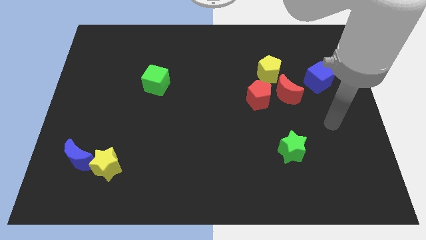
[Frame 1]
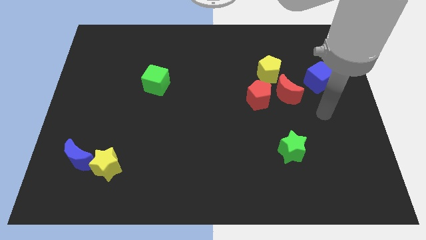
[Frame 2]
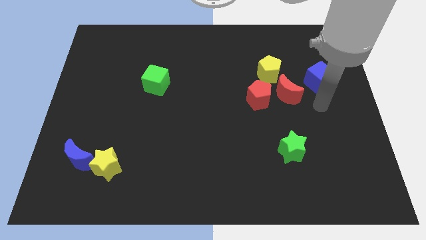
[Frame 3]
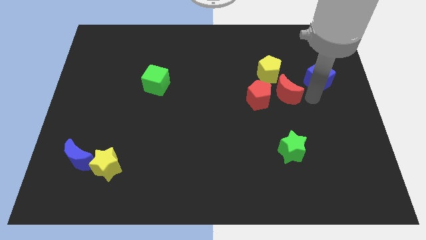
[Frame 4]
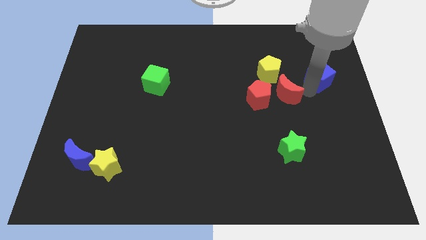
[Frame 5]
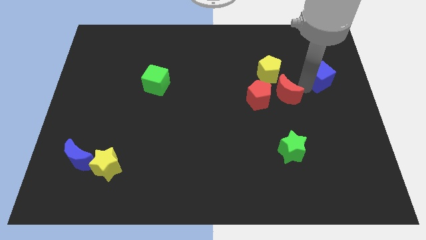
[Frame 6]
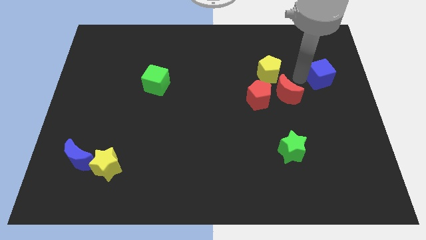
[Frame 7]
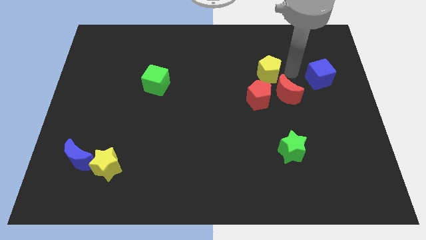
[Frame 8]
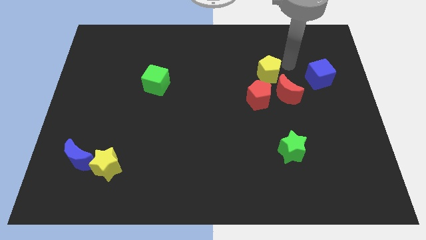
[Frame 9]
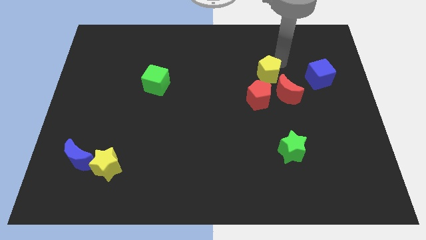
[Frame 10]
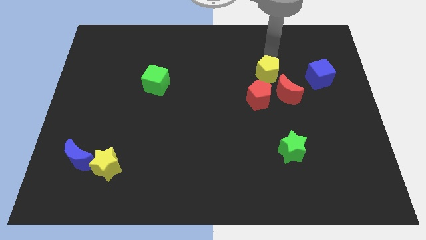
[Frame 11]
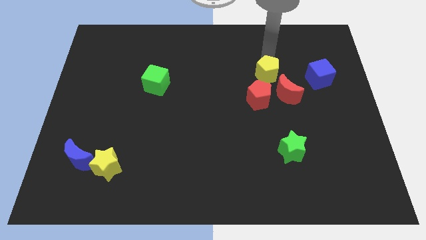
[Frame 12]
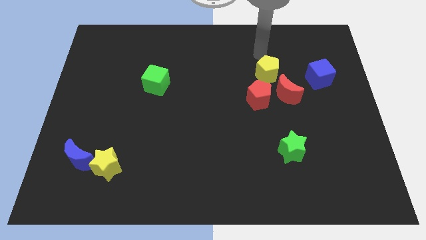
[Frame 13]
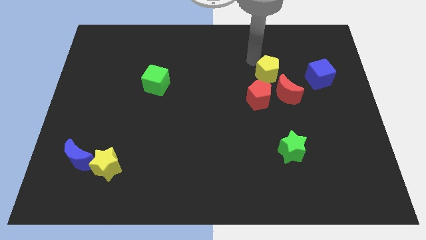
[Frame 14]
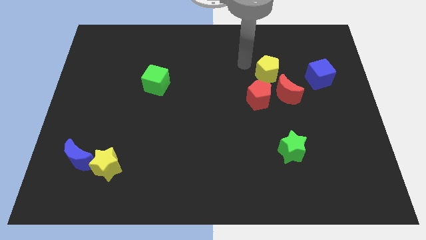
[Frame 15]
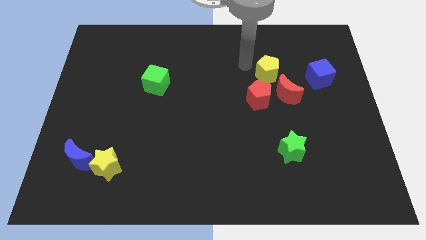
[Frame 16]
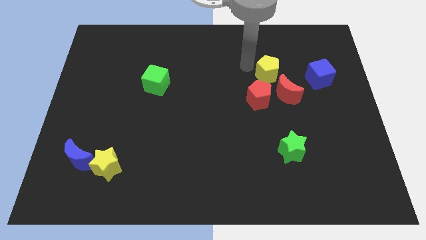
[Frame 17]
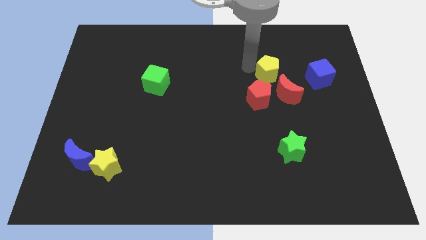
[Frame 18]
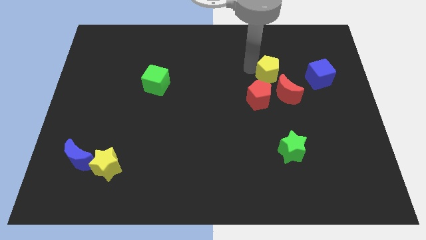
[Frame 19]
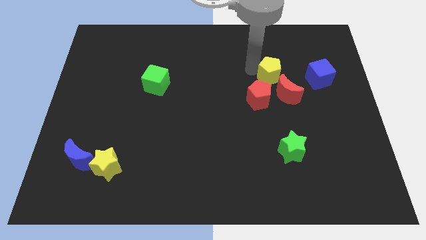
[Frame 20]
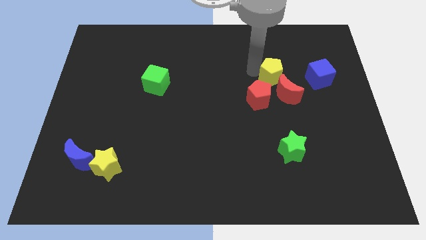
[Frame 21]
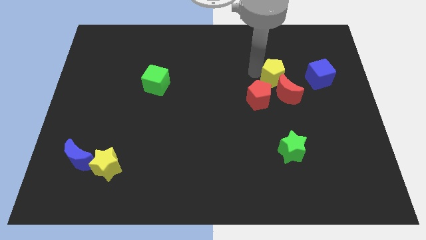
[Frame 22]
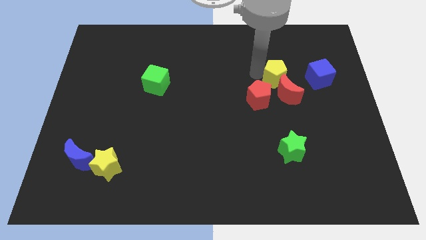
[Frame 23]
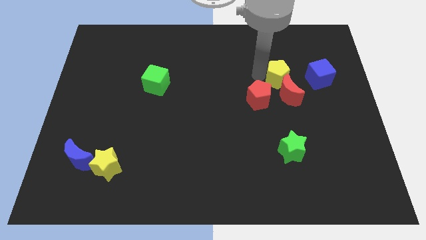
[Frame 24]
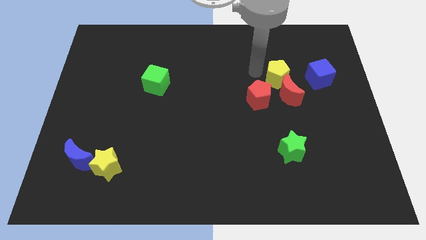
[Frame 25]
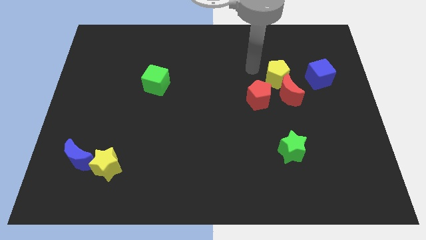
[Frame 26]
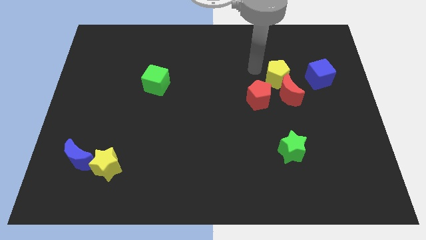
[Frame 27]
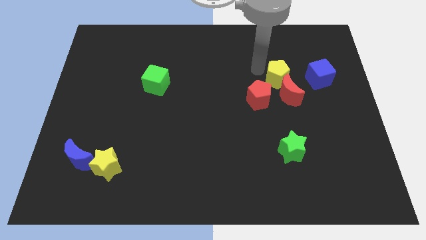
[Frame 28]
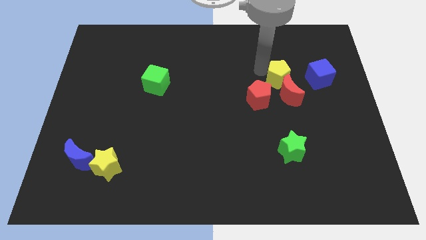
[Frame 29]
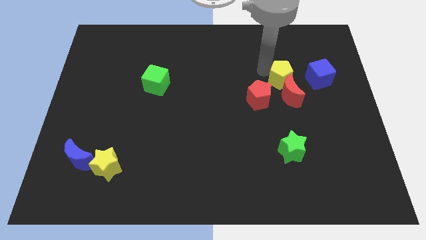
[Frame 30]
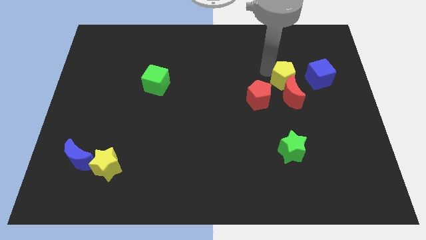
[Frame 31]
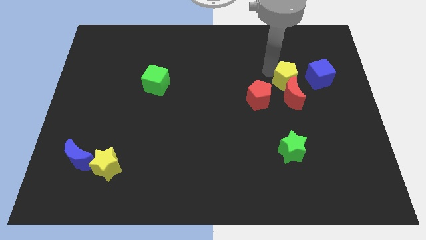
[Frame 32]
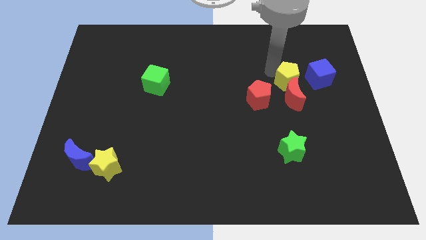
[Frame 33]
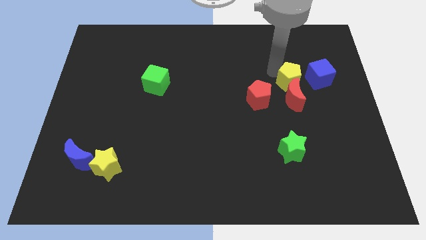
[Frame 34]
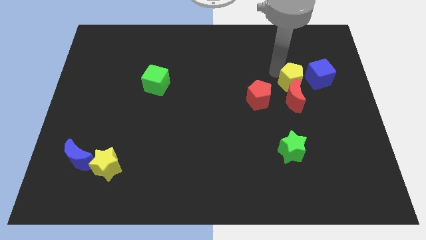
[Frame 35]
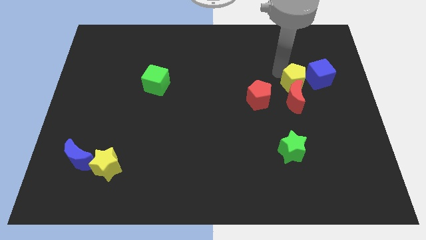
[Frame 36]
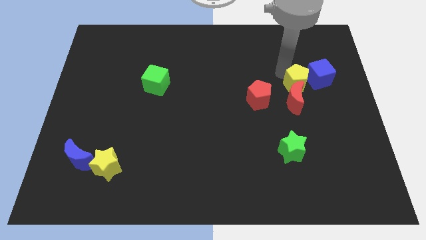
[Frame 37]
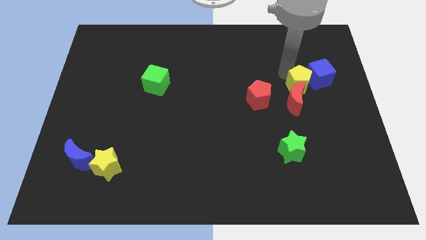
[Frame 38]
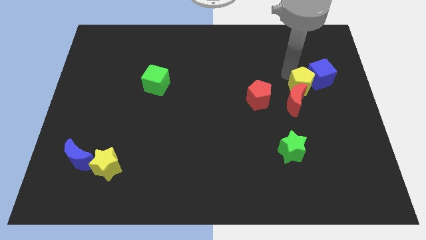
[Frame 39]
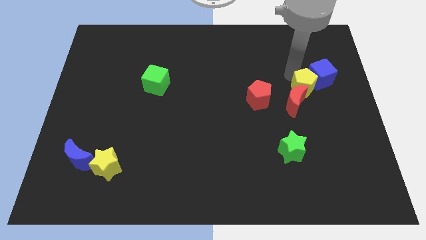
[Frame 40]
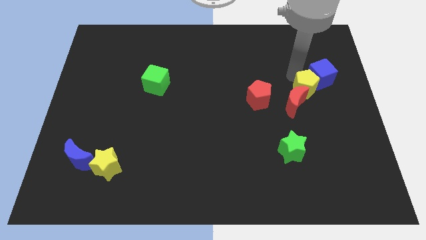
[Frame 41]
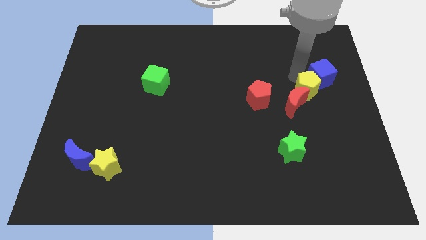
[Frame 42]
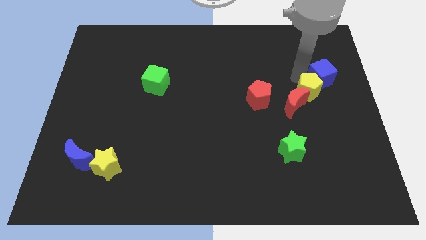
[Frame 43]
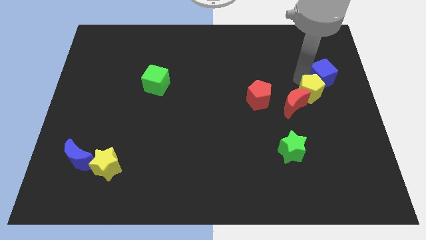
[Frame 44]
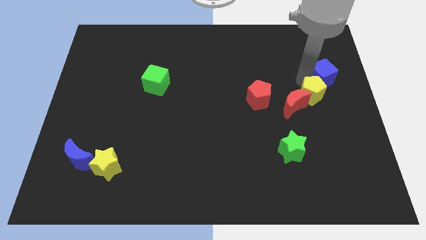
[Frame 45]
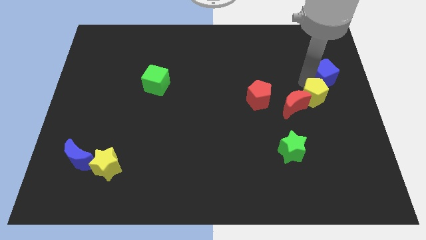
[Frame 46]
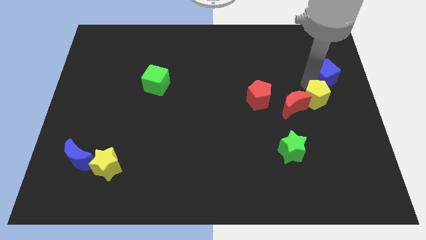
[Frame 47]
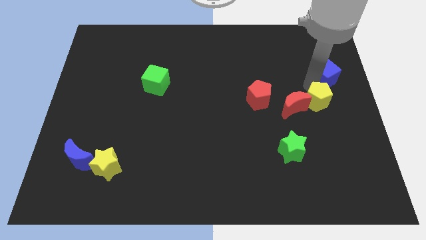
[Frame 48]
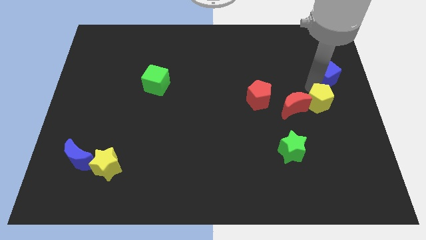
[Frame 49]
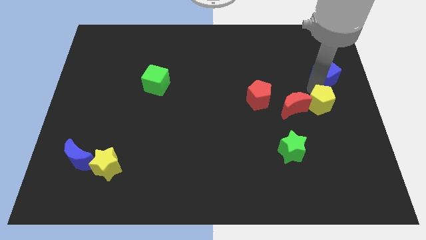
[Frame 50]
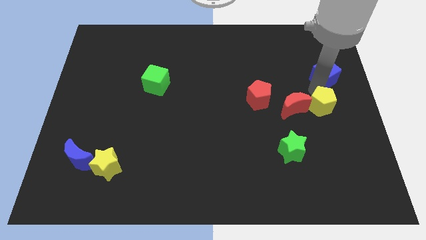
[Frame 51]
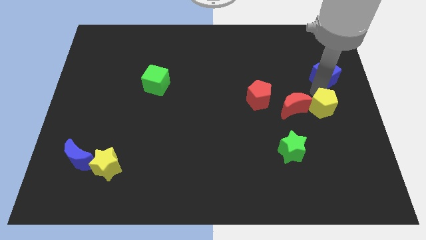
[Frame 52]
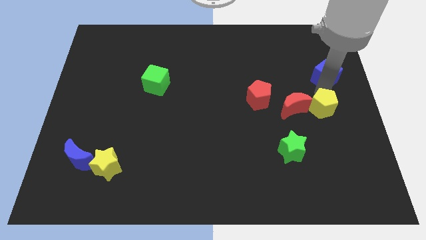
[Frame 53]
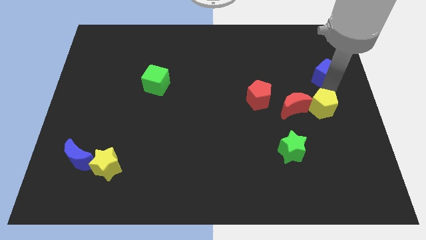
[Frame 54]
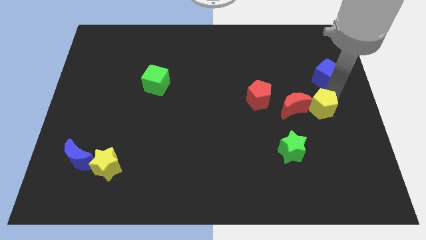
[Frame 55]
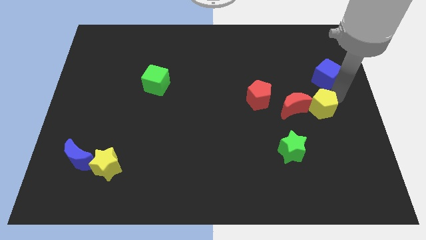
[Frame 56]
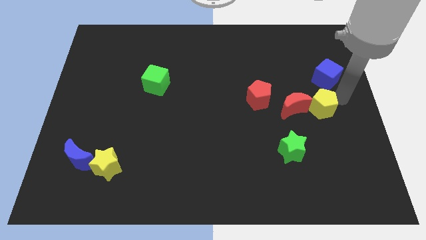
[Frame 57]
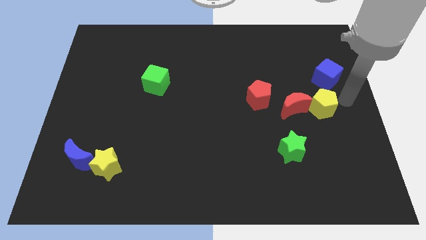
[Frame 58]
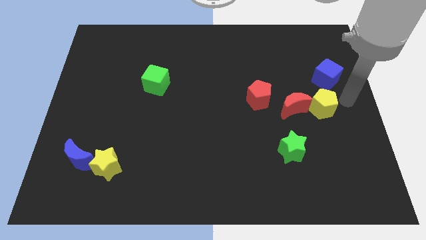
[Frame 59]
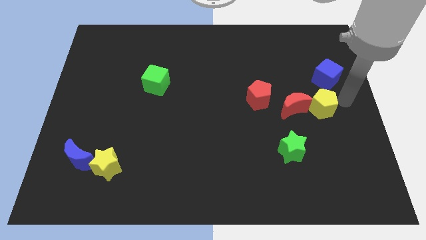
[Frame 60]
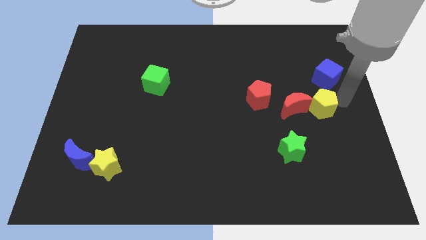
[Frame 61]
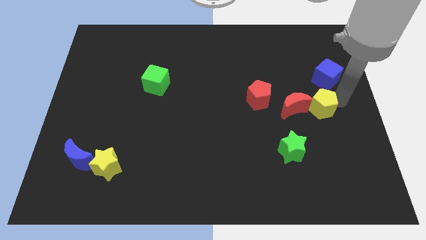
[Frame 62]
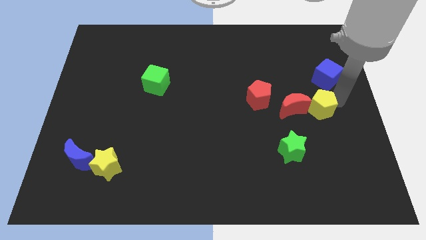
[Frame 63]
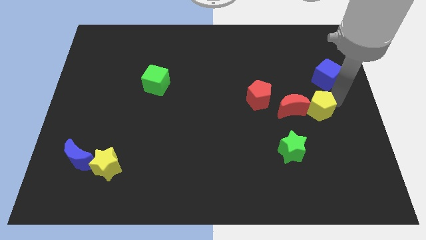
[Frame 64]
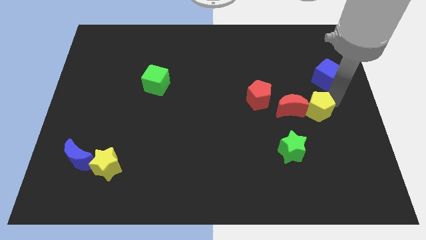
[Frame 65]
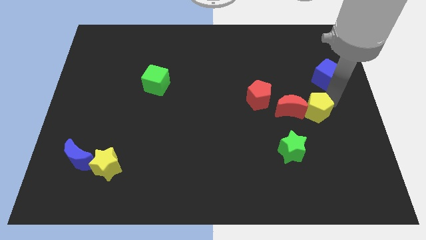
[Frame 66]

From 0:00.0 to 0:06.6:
move the yellow pentagon a little down

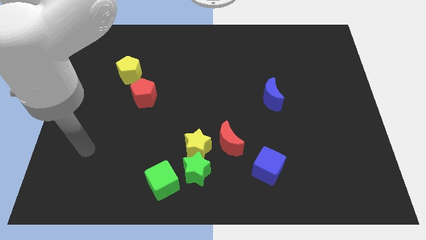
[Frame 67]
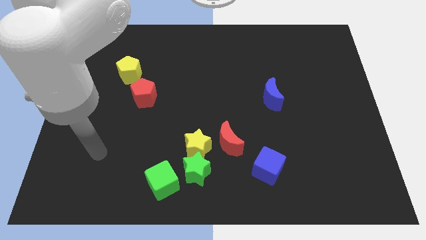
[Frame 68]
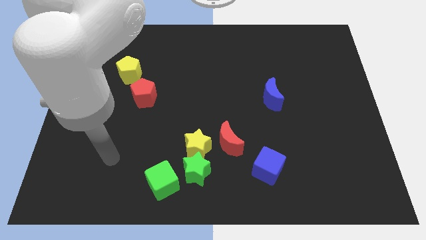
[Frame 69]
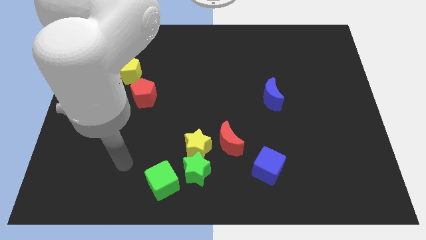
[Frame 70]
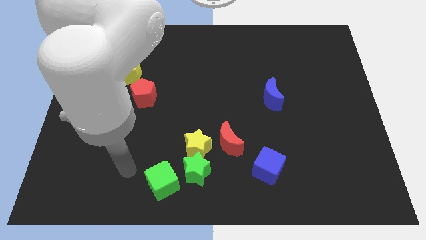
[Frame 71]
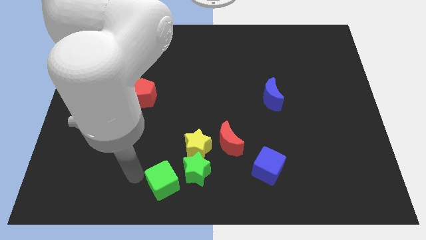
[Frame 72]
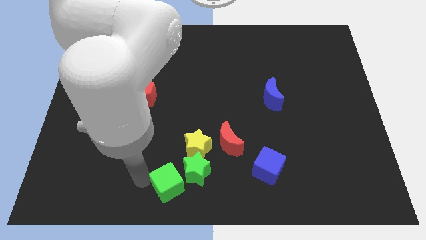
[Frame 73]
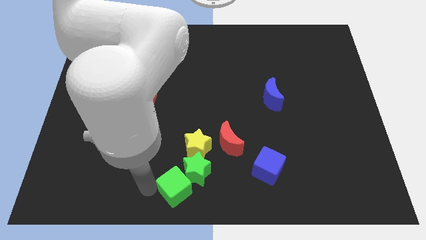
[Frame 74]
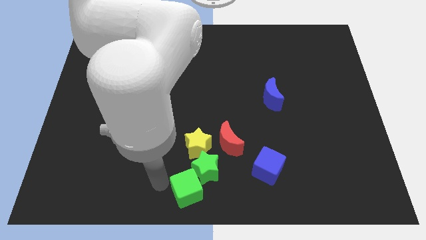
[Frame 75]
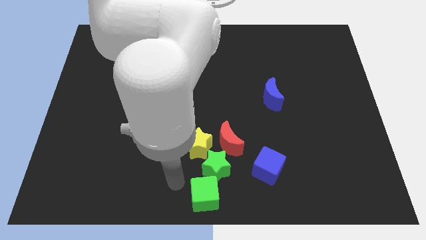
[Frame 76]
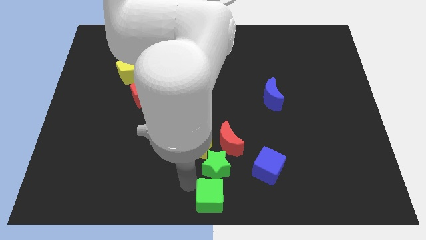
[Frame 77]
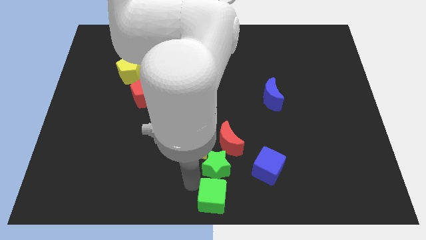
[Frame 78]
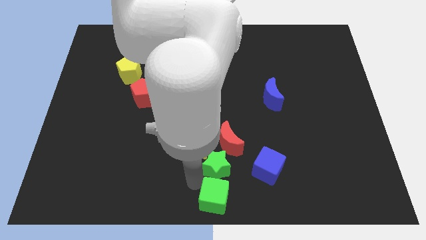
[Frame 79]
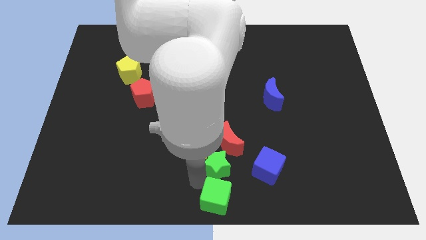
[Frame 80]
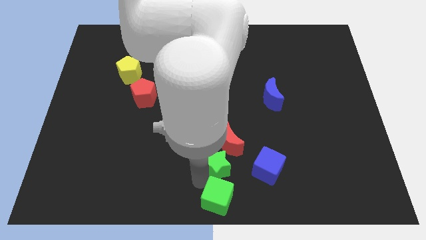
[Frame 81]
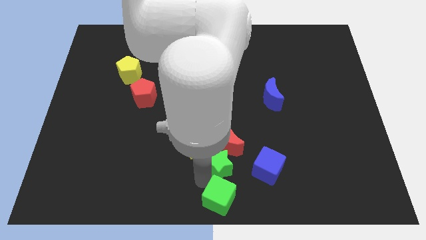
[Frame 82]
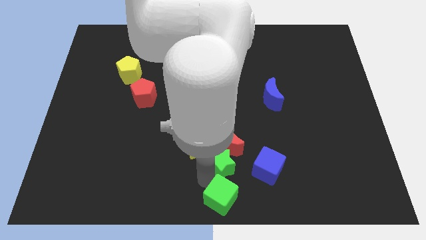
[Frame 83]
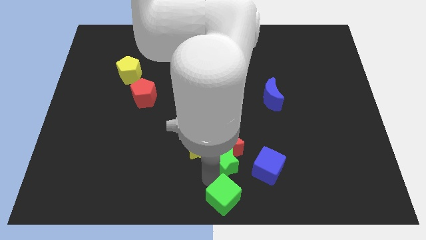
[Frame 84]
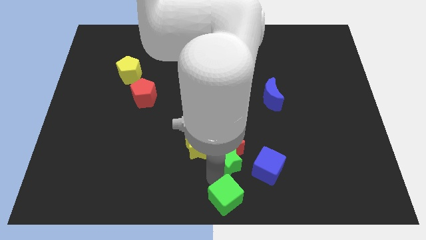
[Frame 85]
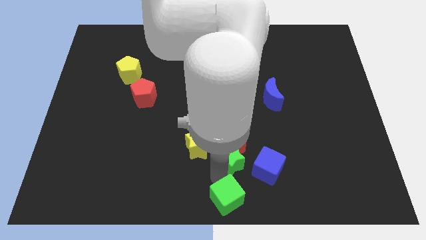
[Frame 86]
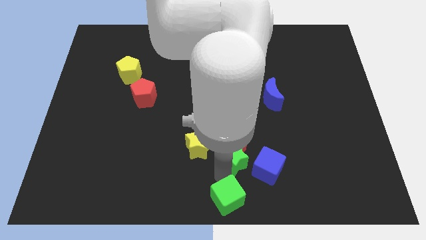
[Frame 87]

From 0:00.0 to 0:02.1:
slightly slide the green star up and then right
